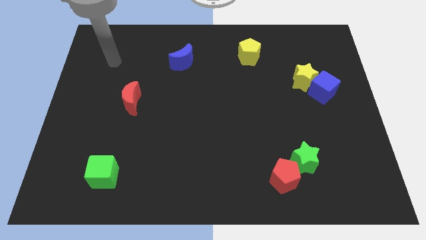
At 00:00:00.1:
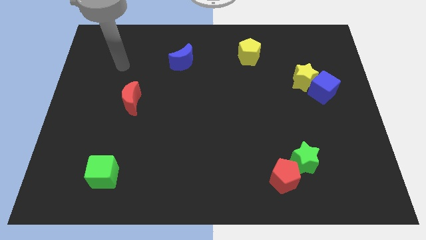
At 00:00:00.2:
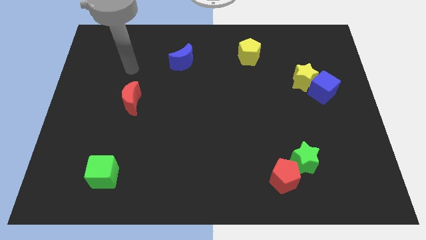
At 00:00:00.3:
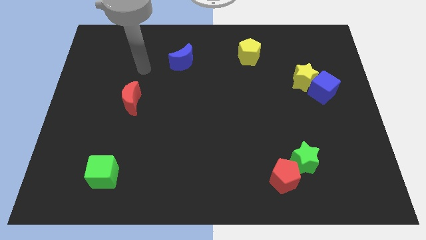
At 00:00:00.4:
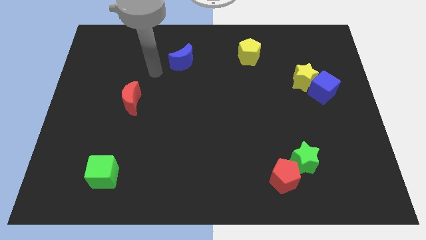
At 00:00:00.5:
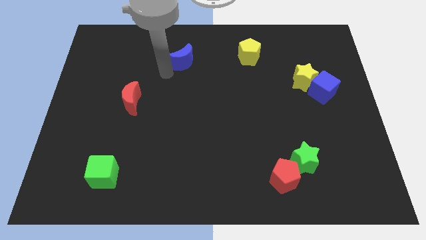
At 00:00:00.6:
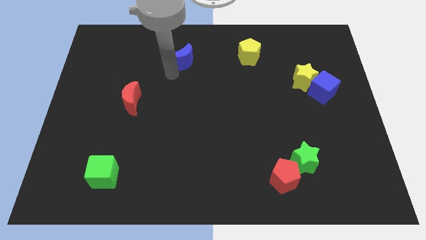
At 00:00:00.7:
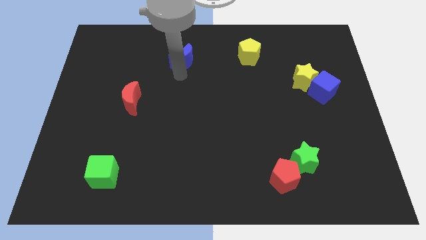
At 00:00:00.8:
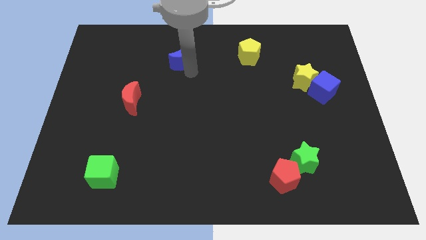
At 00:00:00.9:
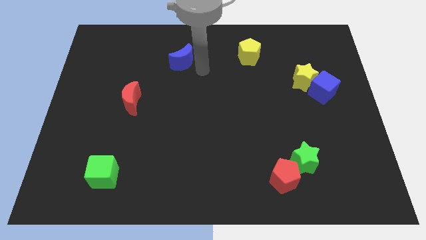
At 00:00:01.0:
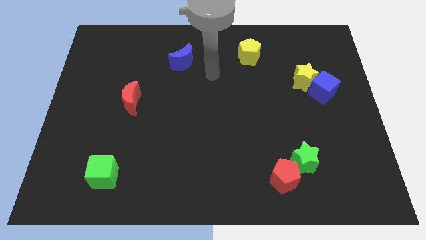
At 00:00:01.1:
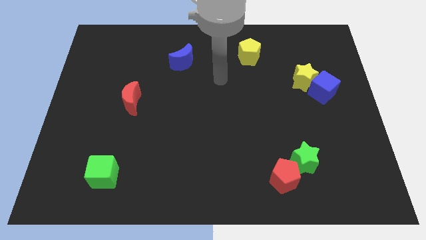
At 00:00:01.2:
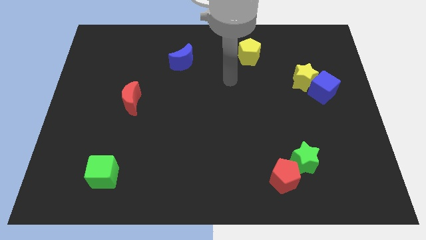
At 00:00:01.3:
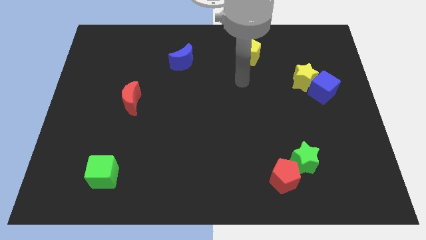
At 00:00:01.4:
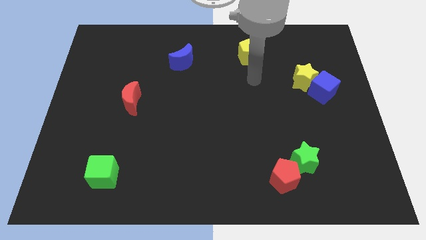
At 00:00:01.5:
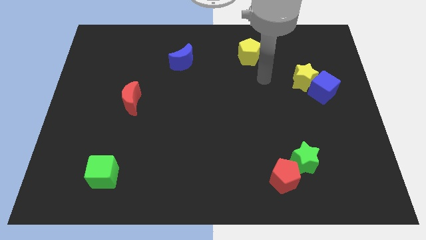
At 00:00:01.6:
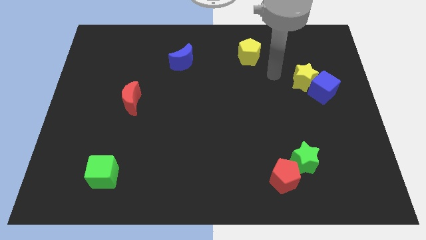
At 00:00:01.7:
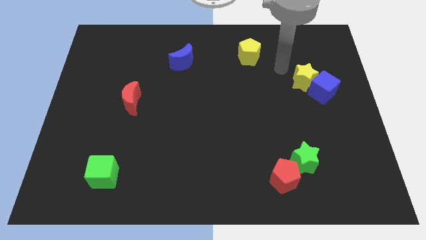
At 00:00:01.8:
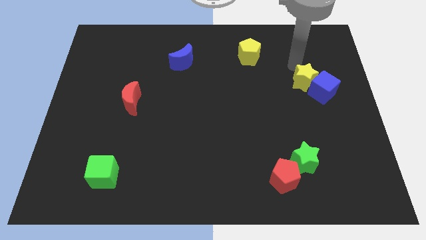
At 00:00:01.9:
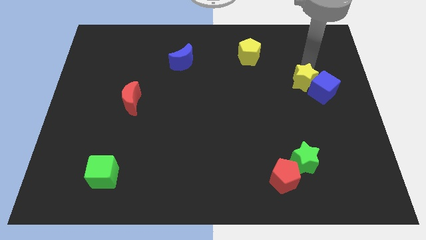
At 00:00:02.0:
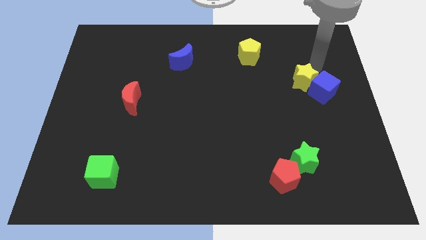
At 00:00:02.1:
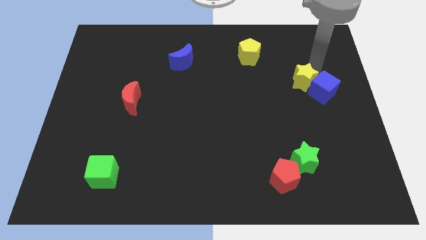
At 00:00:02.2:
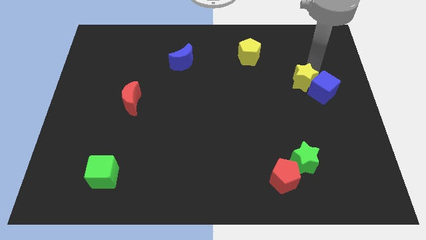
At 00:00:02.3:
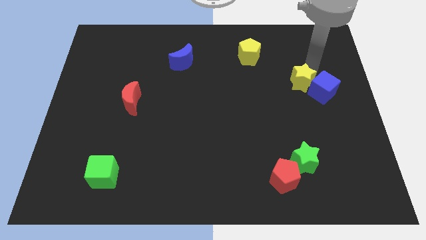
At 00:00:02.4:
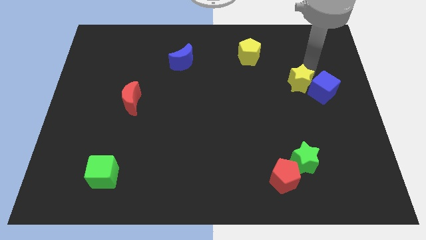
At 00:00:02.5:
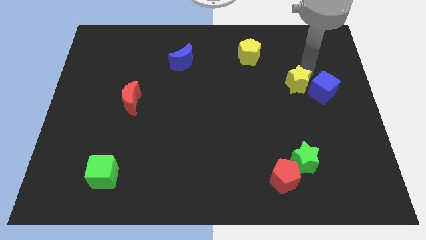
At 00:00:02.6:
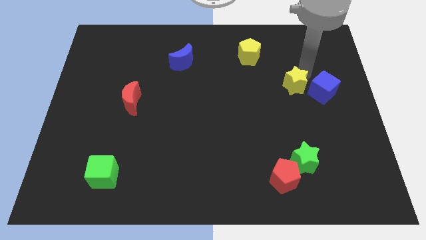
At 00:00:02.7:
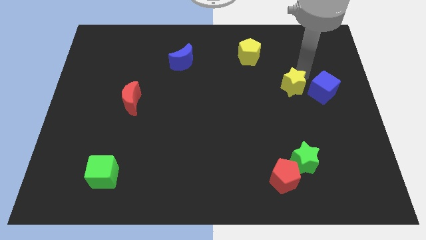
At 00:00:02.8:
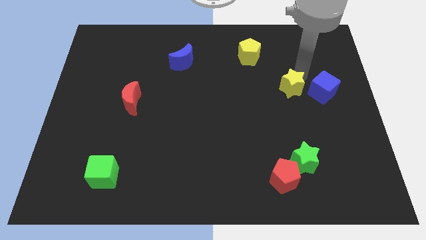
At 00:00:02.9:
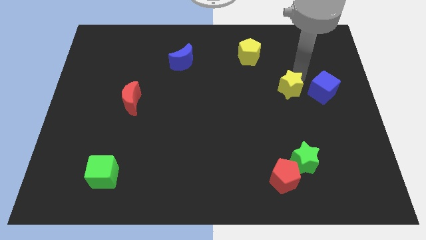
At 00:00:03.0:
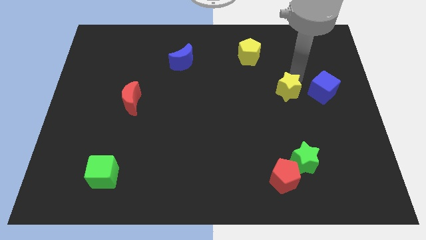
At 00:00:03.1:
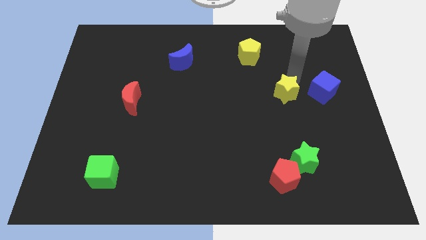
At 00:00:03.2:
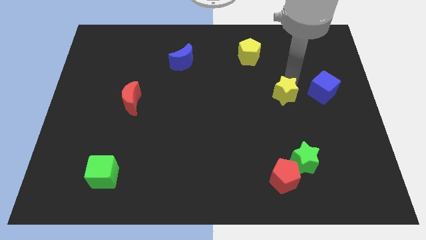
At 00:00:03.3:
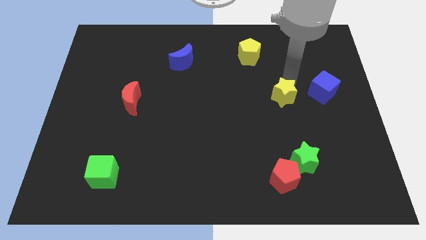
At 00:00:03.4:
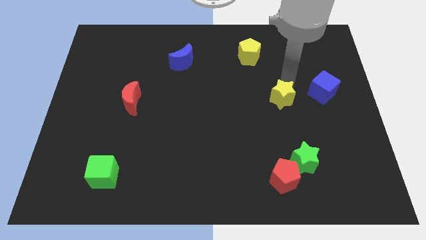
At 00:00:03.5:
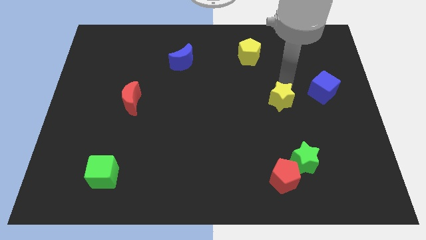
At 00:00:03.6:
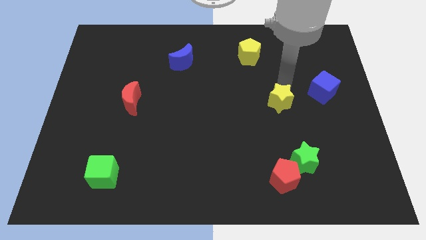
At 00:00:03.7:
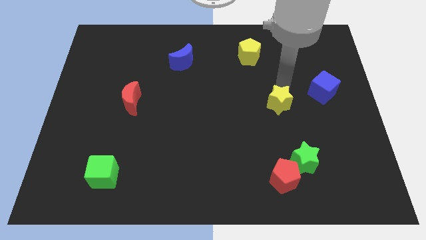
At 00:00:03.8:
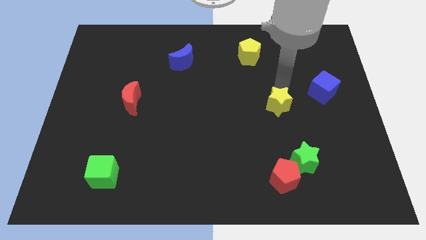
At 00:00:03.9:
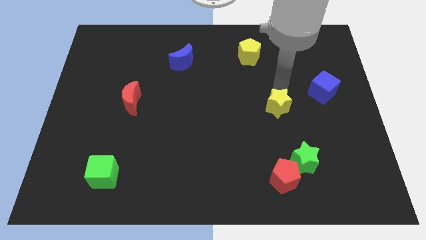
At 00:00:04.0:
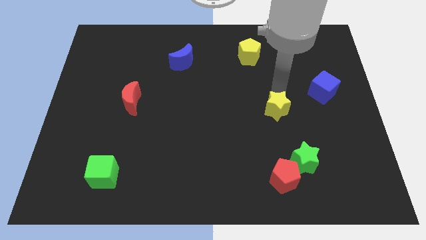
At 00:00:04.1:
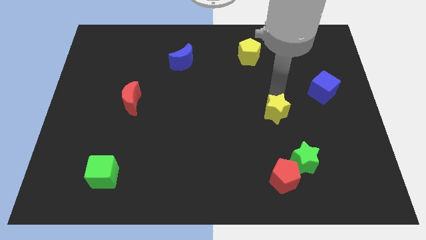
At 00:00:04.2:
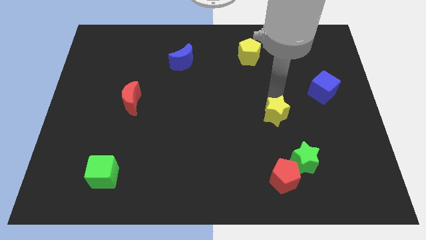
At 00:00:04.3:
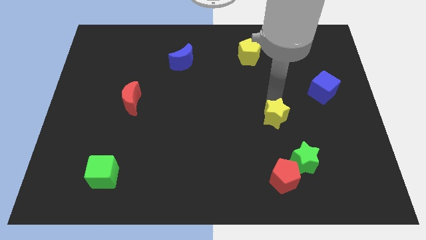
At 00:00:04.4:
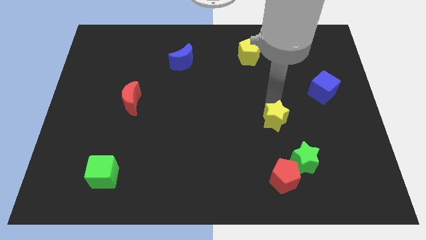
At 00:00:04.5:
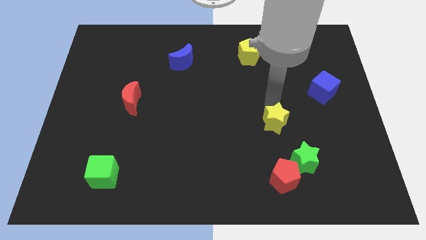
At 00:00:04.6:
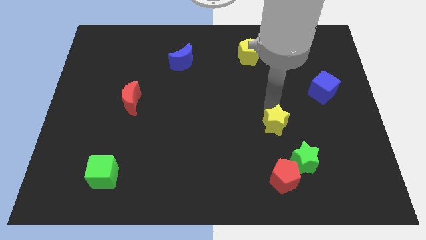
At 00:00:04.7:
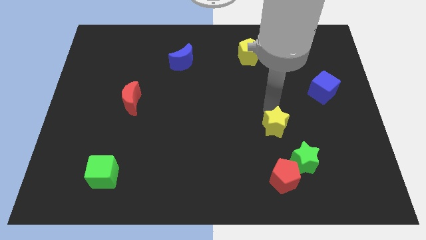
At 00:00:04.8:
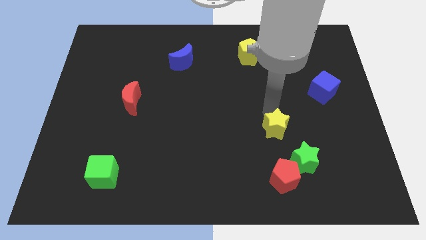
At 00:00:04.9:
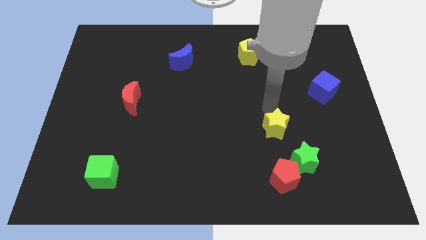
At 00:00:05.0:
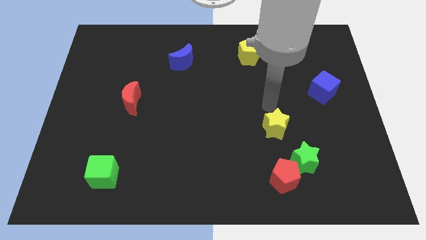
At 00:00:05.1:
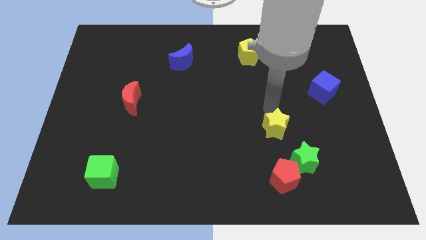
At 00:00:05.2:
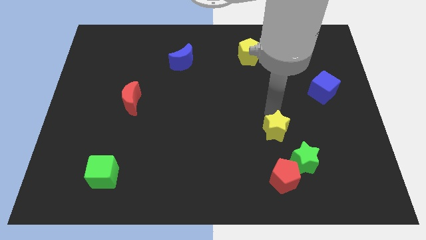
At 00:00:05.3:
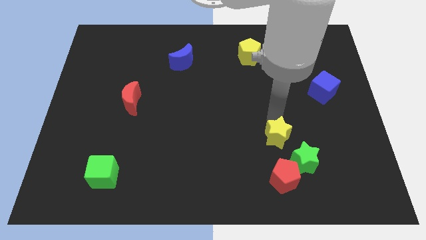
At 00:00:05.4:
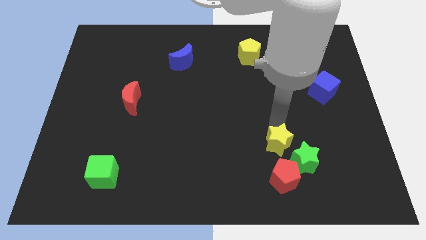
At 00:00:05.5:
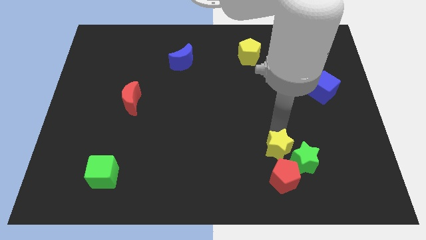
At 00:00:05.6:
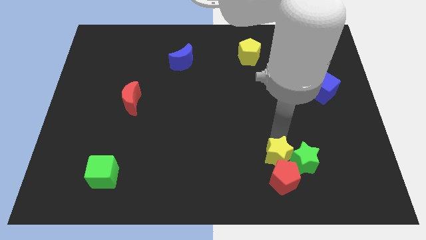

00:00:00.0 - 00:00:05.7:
push the yellow star close to the red pentagon
